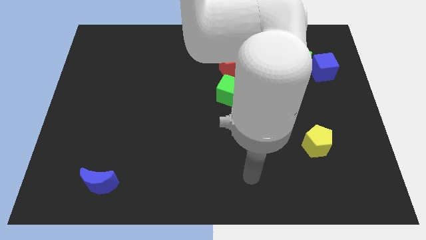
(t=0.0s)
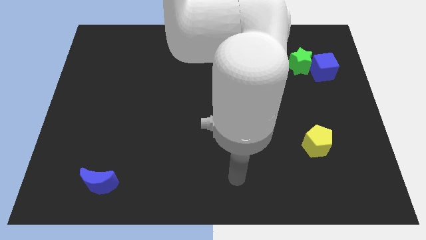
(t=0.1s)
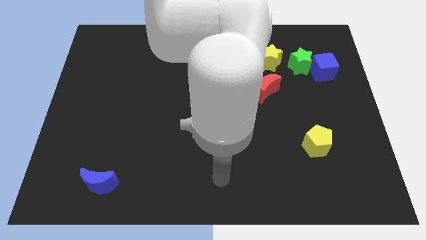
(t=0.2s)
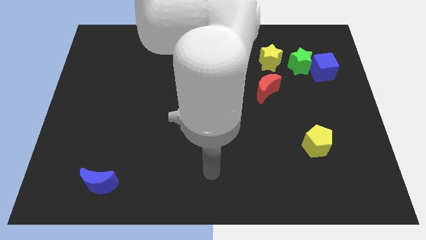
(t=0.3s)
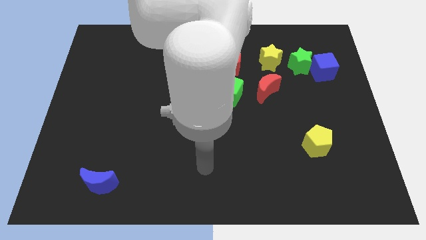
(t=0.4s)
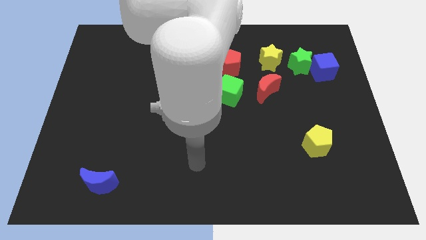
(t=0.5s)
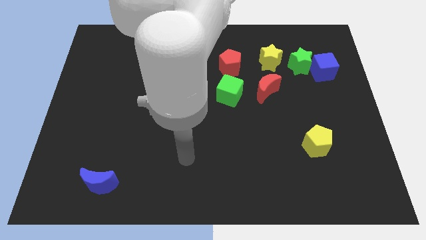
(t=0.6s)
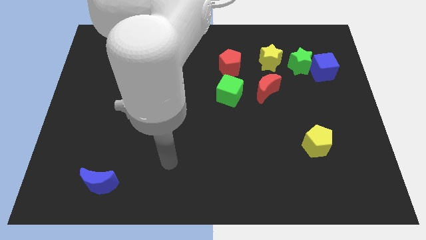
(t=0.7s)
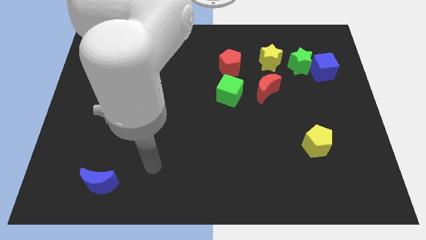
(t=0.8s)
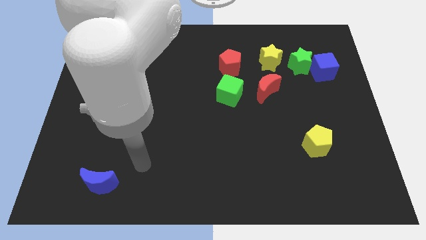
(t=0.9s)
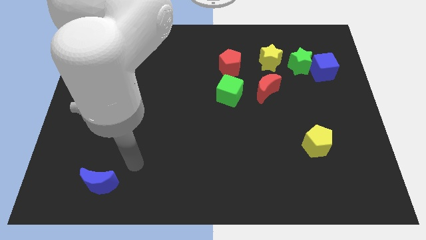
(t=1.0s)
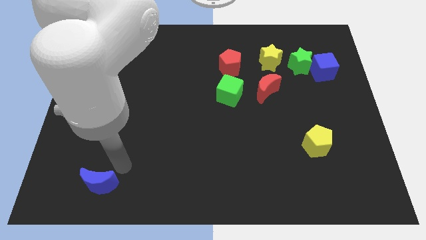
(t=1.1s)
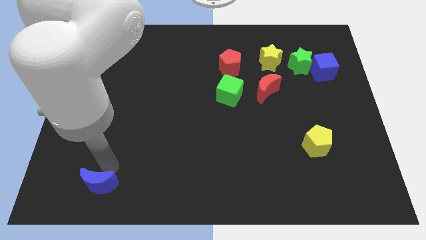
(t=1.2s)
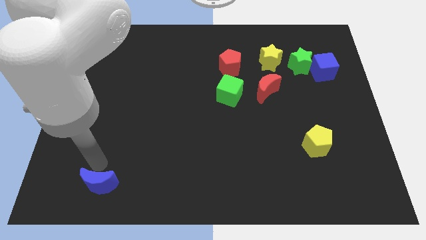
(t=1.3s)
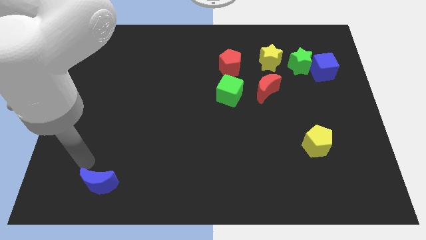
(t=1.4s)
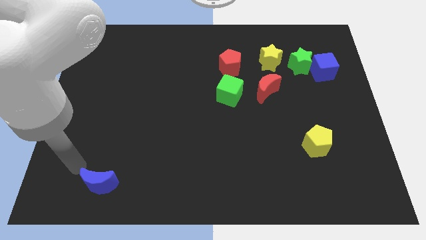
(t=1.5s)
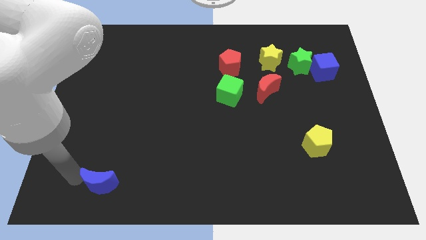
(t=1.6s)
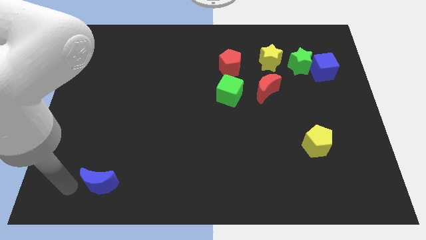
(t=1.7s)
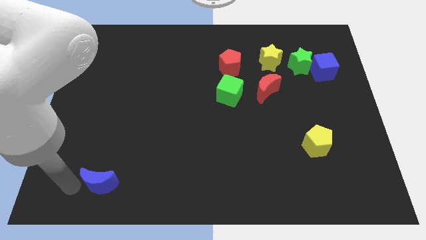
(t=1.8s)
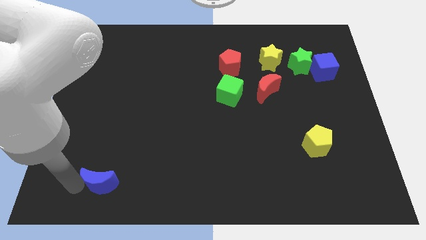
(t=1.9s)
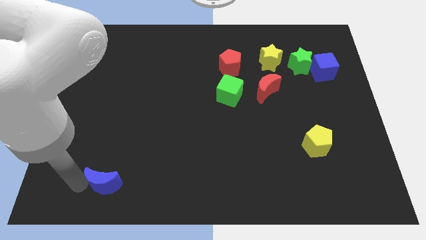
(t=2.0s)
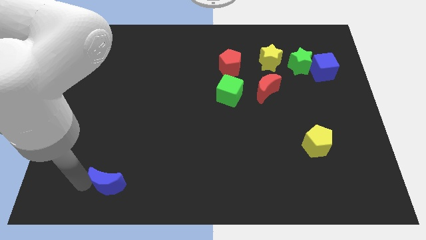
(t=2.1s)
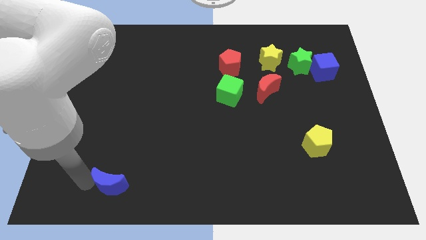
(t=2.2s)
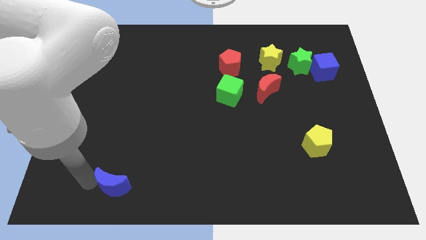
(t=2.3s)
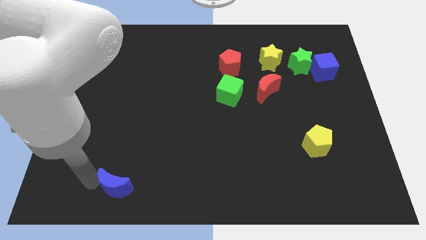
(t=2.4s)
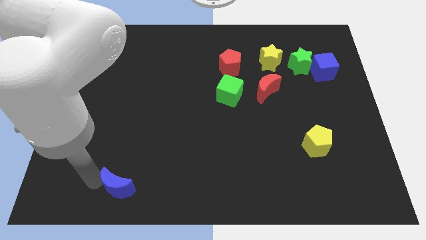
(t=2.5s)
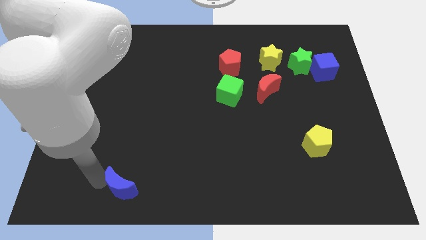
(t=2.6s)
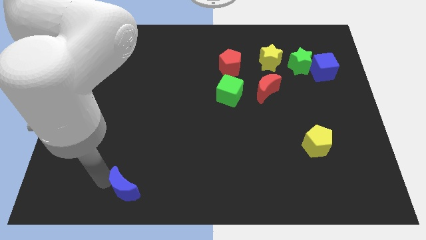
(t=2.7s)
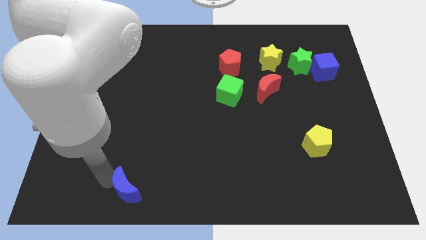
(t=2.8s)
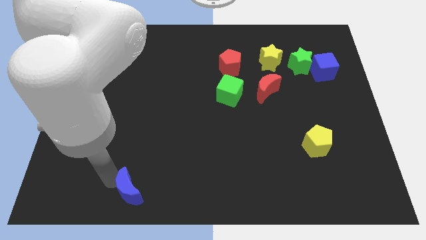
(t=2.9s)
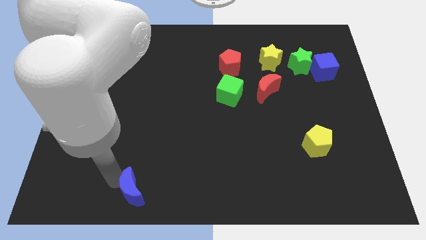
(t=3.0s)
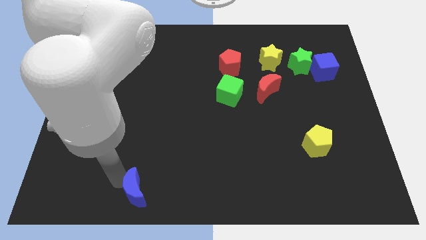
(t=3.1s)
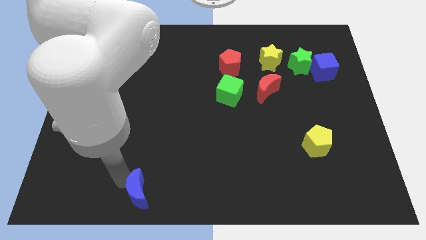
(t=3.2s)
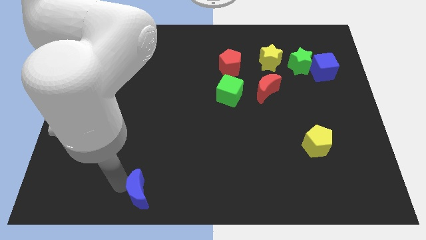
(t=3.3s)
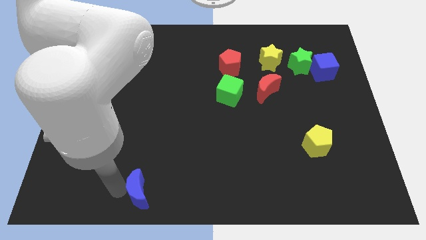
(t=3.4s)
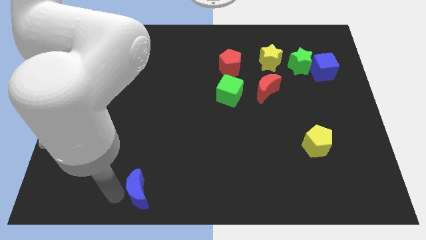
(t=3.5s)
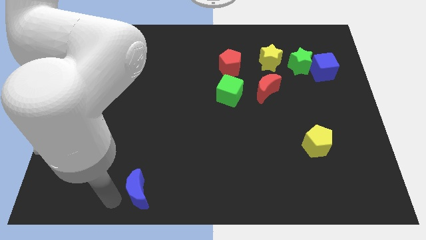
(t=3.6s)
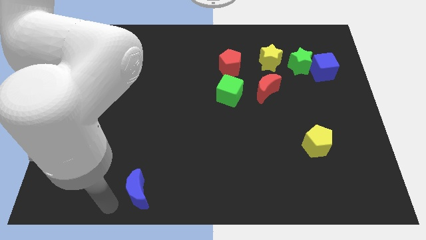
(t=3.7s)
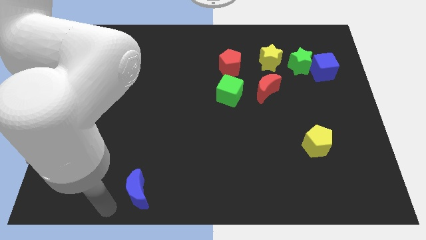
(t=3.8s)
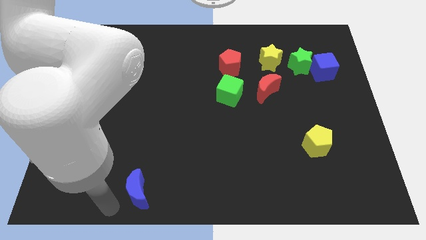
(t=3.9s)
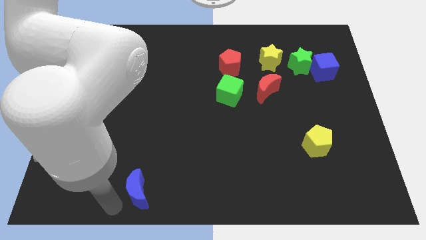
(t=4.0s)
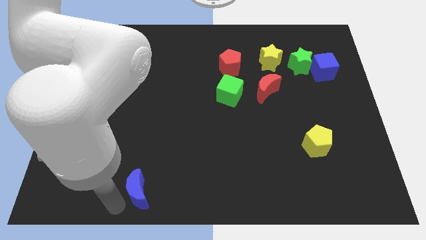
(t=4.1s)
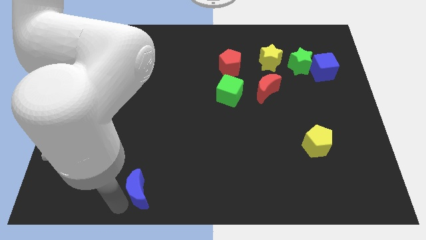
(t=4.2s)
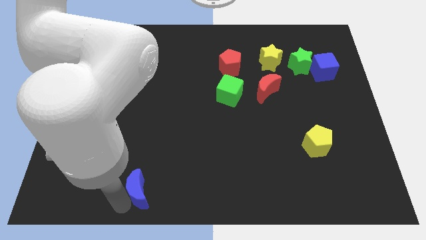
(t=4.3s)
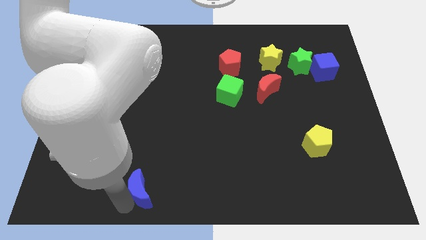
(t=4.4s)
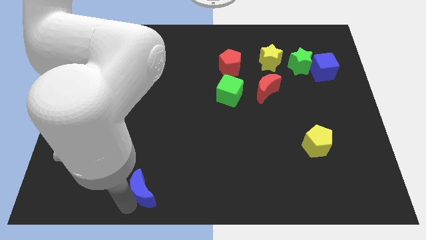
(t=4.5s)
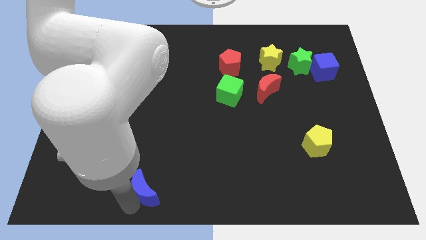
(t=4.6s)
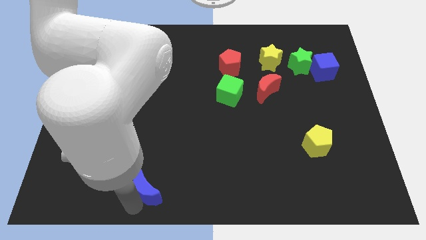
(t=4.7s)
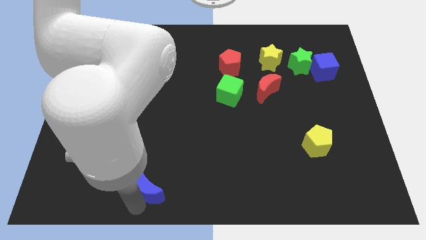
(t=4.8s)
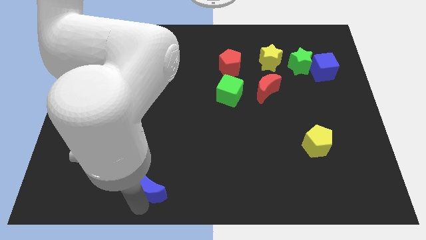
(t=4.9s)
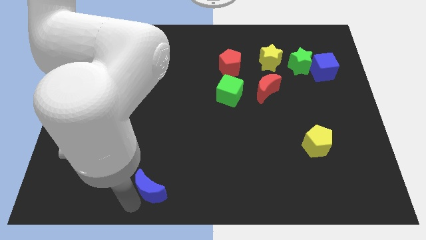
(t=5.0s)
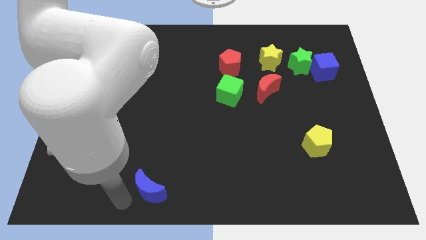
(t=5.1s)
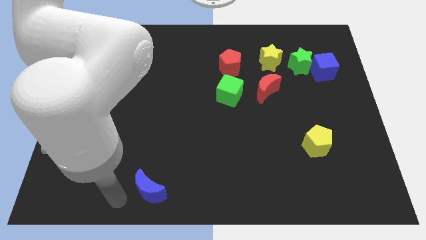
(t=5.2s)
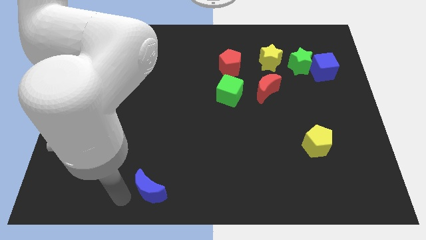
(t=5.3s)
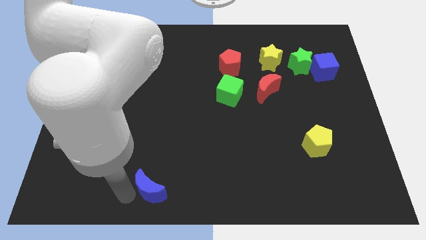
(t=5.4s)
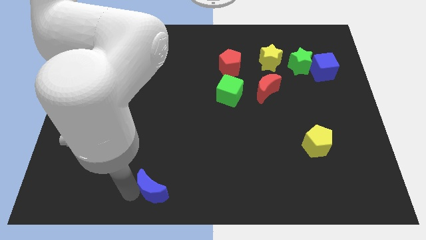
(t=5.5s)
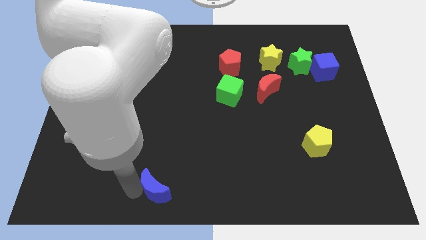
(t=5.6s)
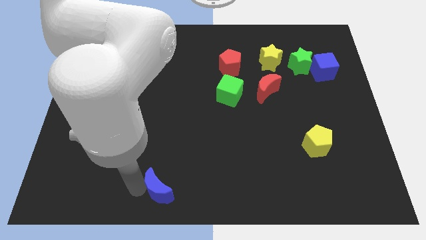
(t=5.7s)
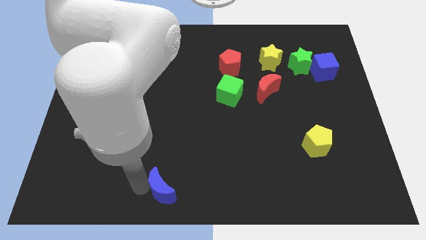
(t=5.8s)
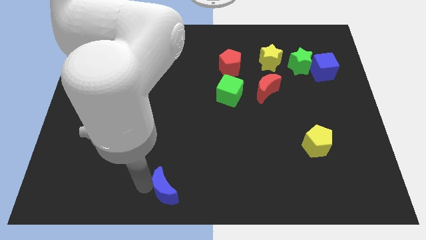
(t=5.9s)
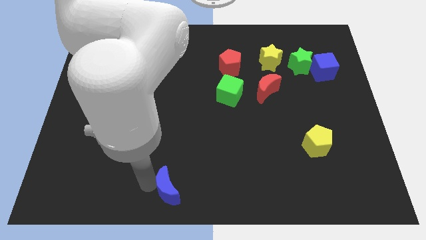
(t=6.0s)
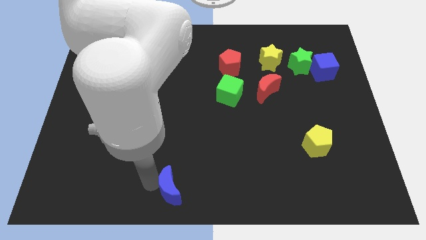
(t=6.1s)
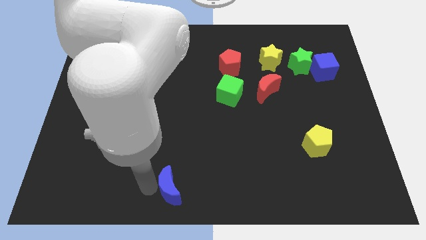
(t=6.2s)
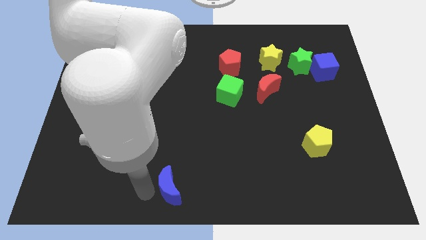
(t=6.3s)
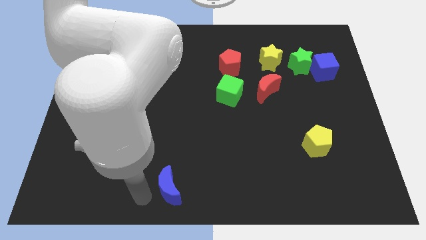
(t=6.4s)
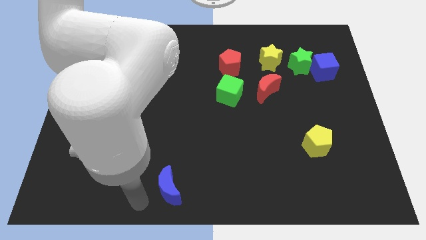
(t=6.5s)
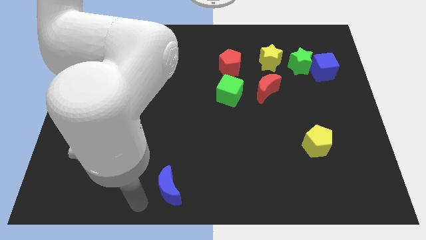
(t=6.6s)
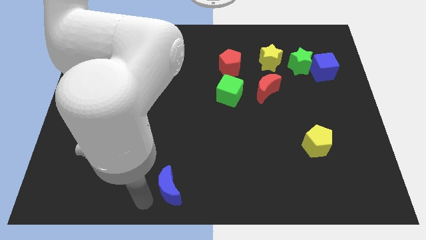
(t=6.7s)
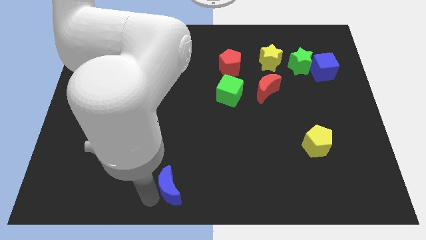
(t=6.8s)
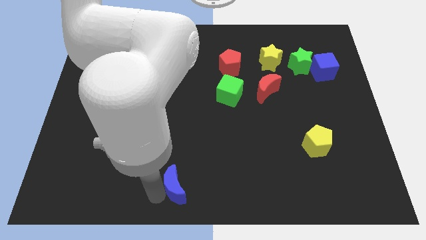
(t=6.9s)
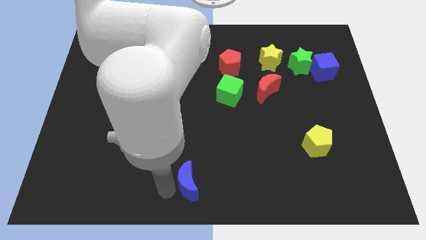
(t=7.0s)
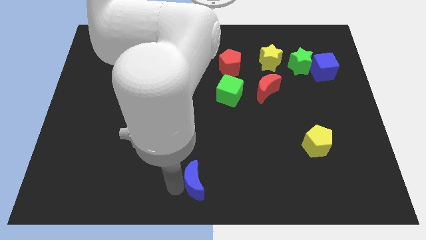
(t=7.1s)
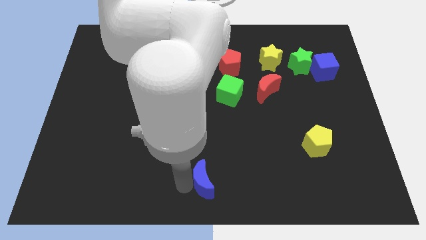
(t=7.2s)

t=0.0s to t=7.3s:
slide the blue moon right

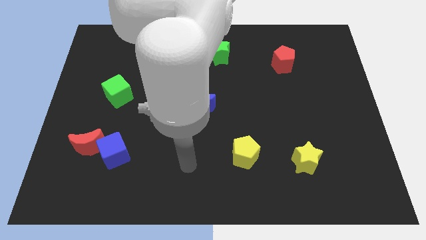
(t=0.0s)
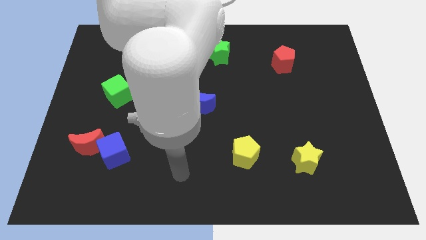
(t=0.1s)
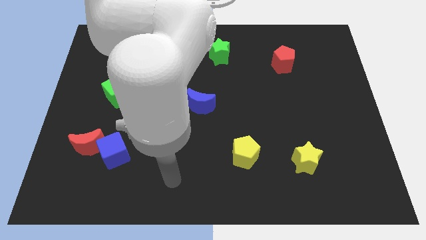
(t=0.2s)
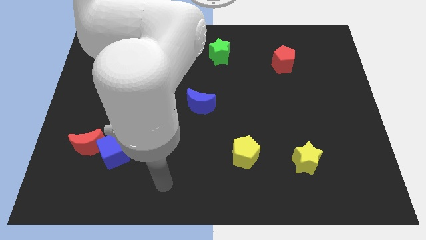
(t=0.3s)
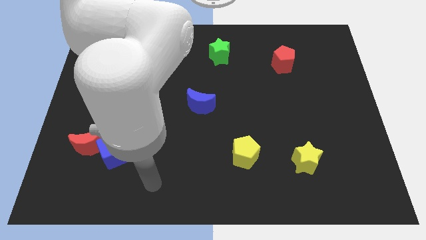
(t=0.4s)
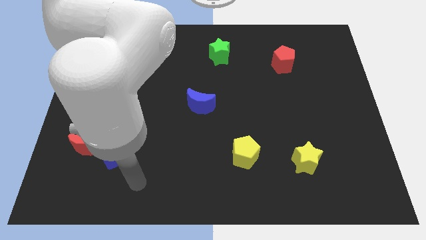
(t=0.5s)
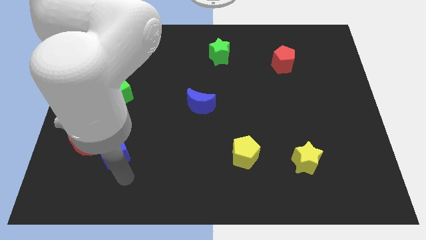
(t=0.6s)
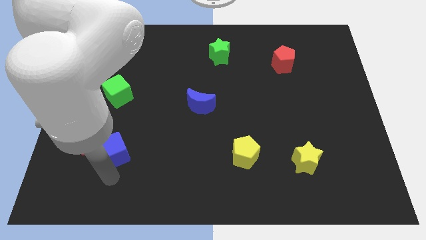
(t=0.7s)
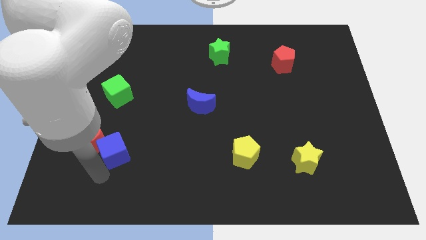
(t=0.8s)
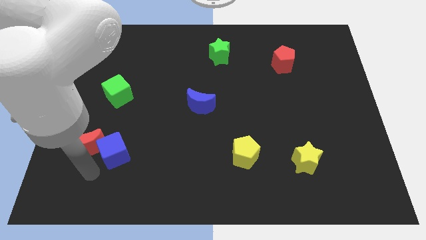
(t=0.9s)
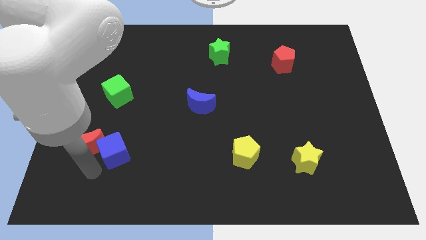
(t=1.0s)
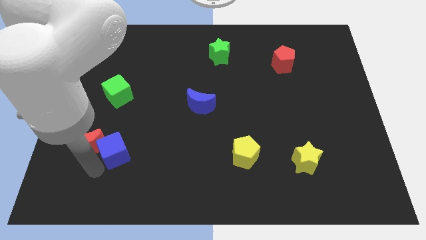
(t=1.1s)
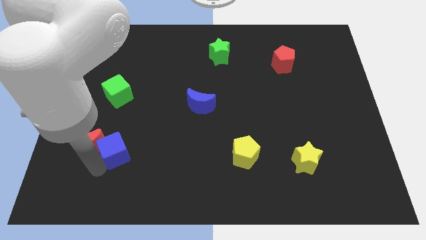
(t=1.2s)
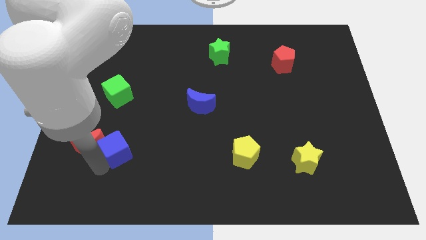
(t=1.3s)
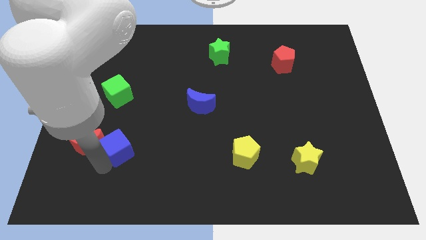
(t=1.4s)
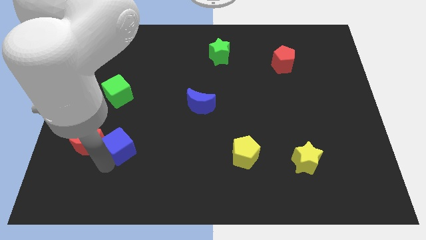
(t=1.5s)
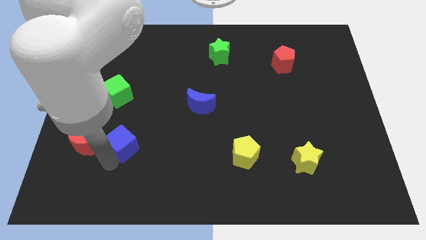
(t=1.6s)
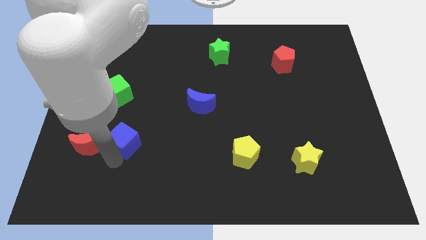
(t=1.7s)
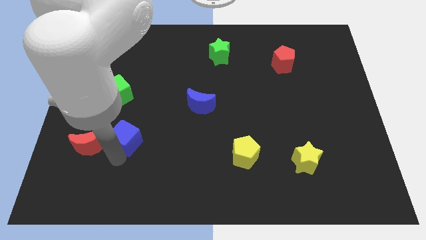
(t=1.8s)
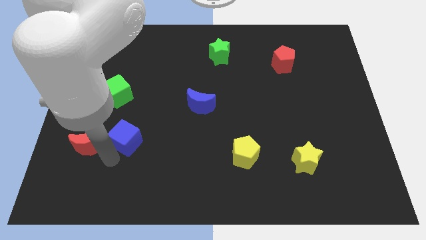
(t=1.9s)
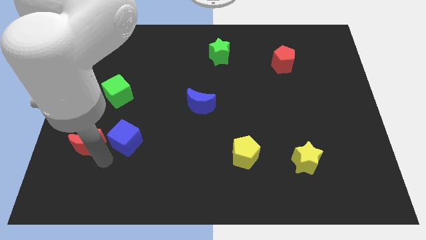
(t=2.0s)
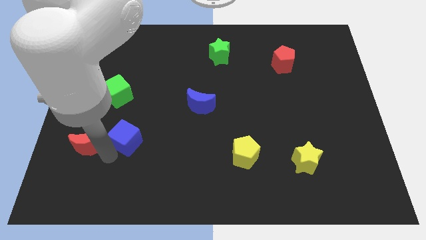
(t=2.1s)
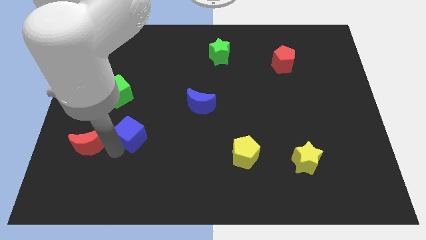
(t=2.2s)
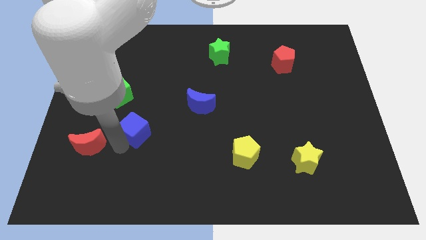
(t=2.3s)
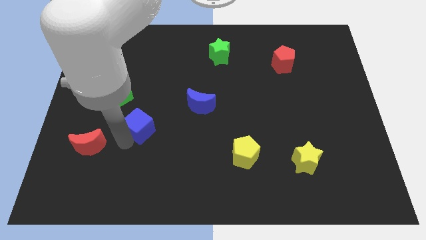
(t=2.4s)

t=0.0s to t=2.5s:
slide the blue cube upwards and then right a little
